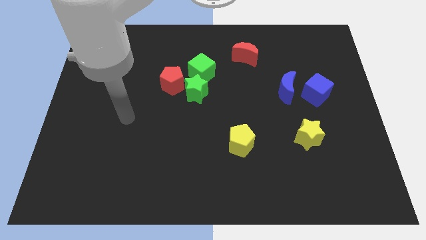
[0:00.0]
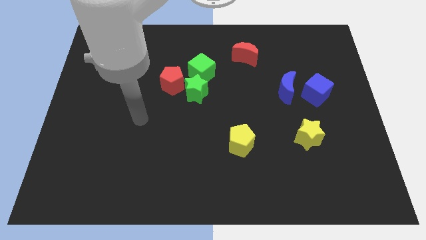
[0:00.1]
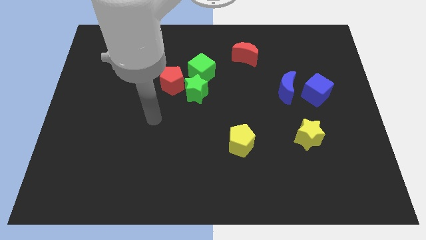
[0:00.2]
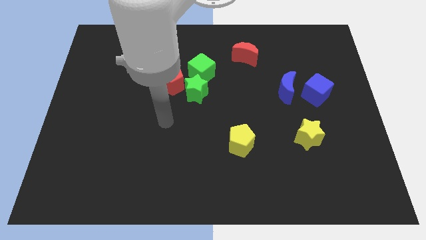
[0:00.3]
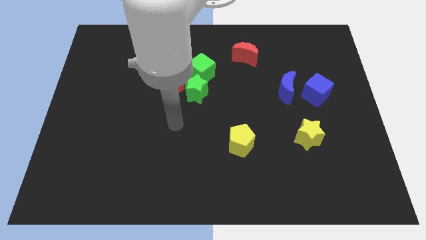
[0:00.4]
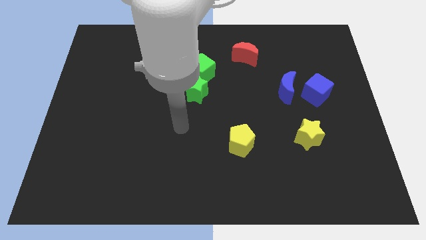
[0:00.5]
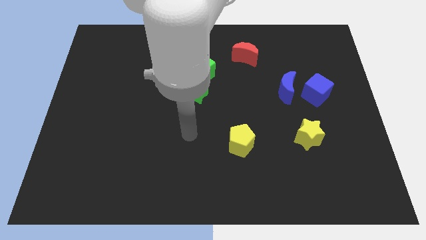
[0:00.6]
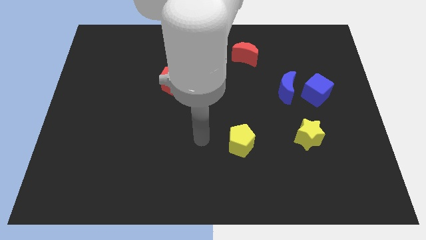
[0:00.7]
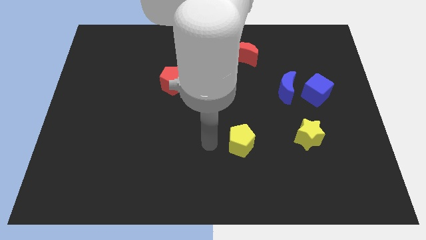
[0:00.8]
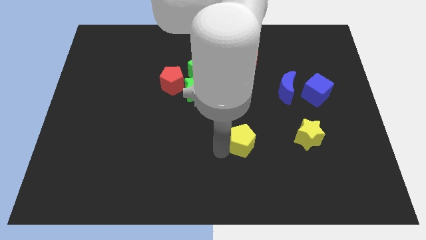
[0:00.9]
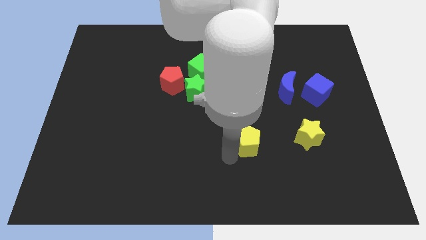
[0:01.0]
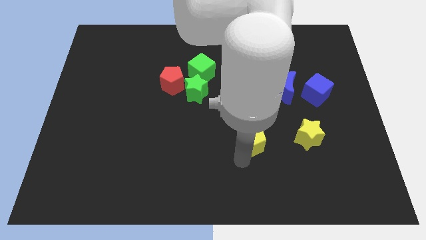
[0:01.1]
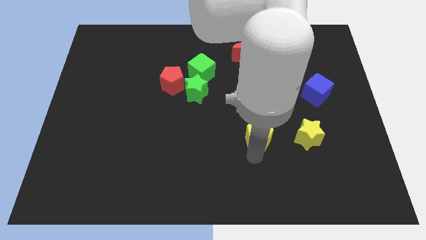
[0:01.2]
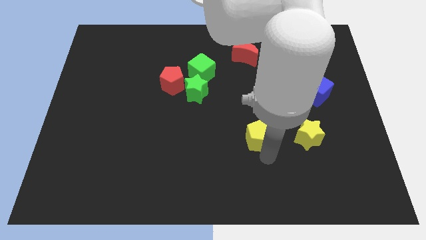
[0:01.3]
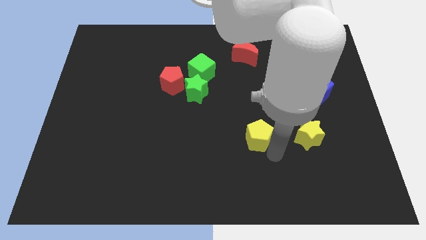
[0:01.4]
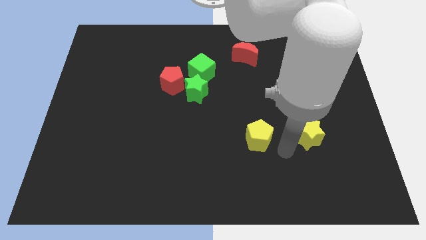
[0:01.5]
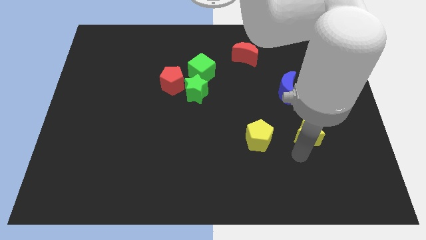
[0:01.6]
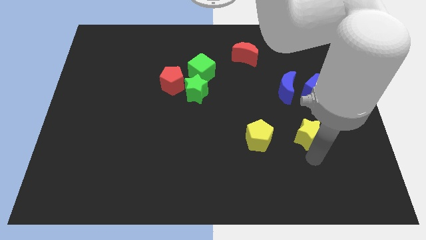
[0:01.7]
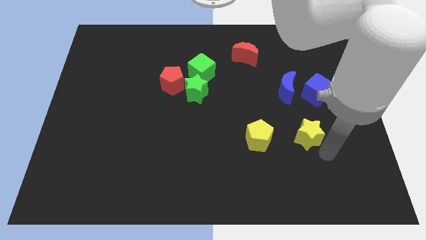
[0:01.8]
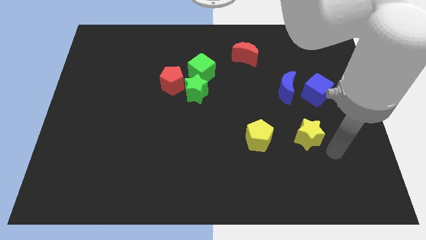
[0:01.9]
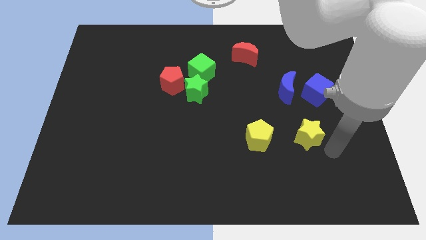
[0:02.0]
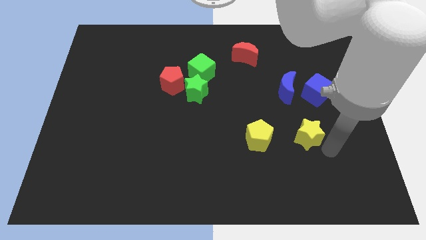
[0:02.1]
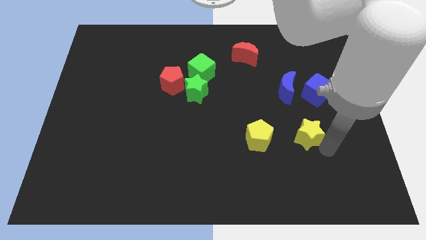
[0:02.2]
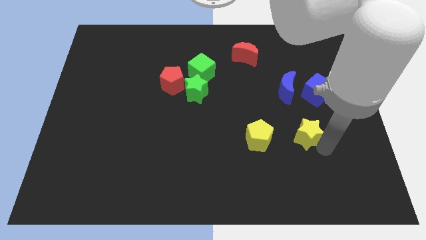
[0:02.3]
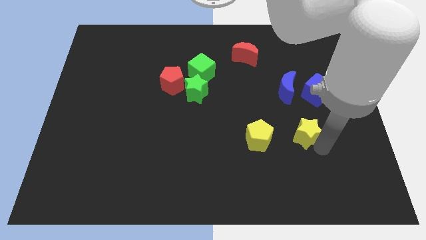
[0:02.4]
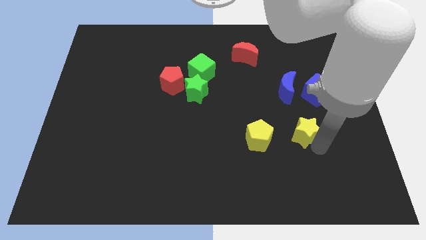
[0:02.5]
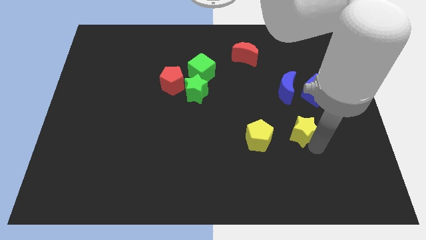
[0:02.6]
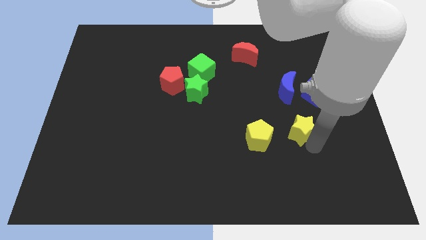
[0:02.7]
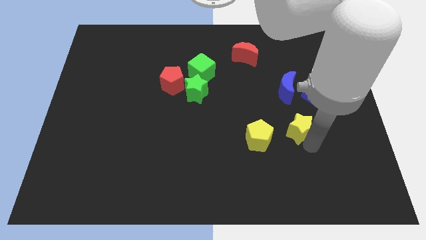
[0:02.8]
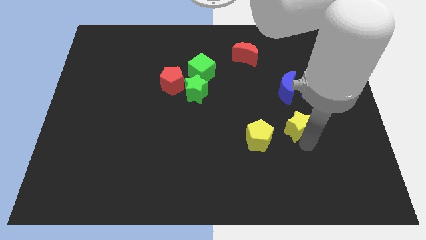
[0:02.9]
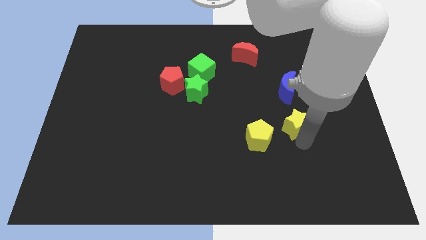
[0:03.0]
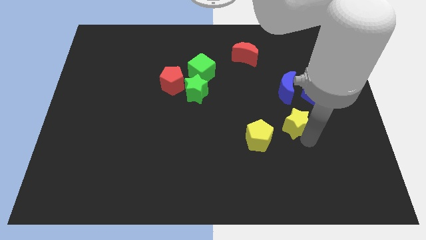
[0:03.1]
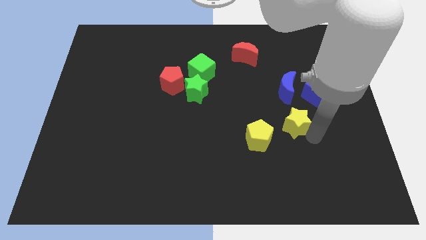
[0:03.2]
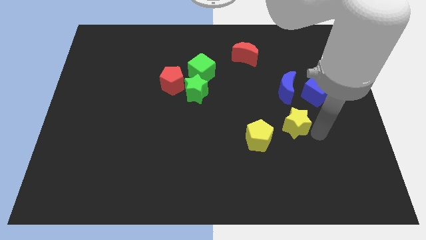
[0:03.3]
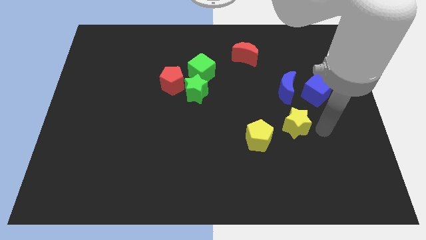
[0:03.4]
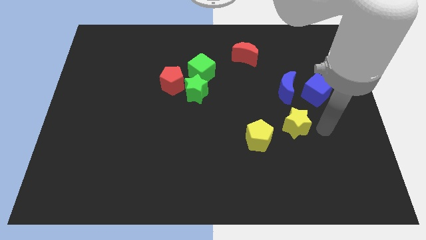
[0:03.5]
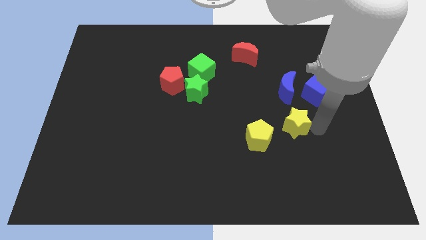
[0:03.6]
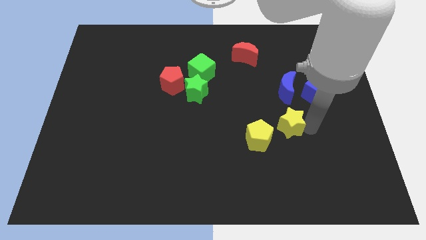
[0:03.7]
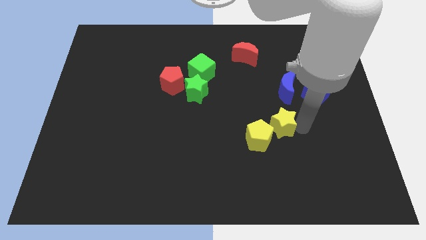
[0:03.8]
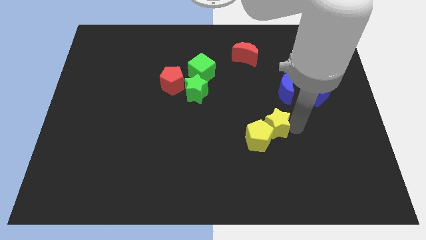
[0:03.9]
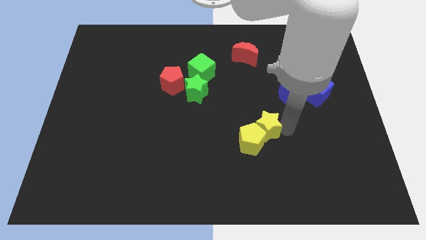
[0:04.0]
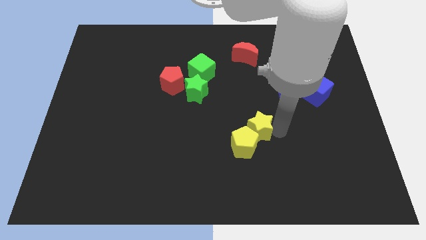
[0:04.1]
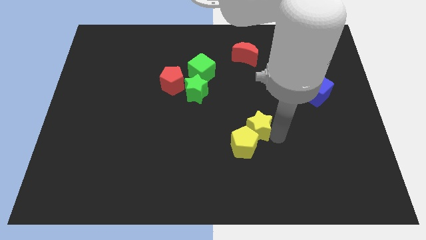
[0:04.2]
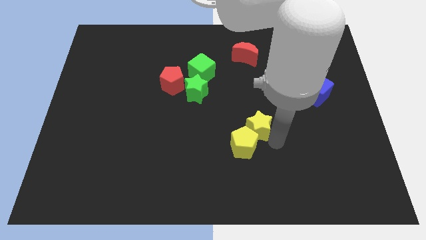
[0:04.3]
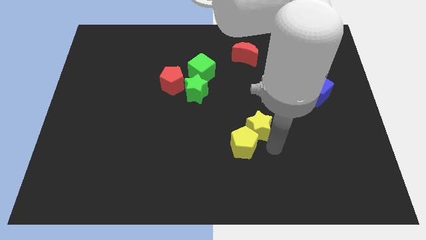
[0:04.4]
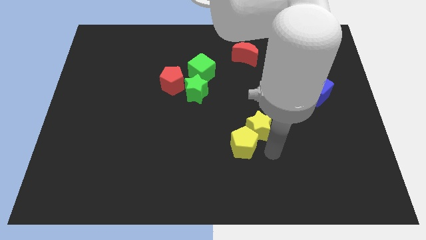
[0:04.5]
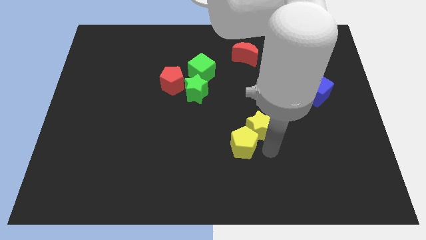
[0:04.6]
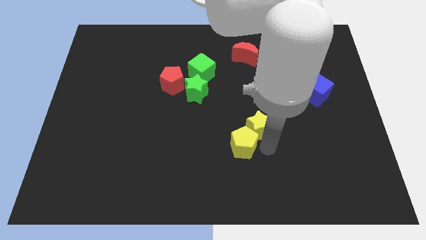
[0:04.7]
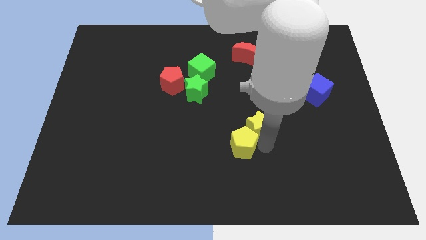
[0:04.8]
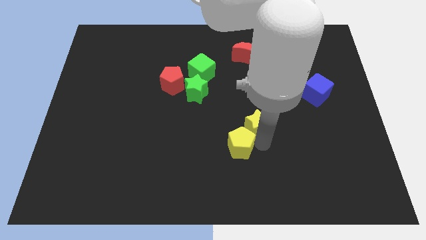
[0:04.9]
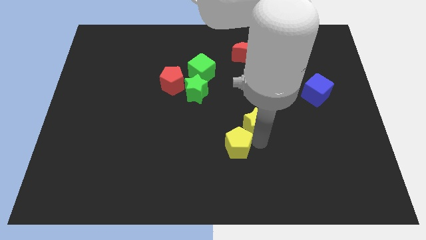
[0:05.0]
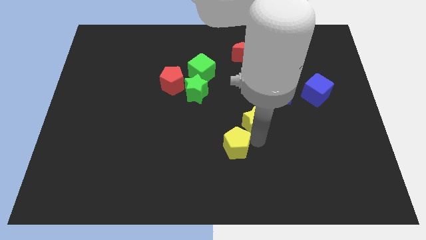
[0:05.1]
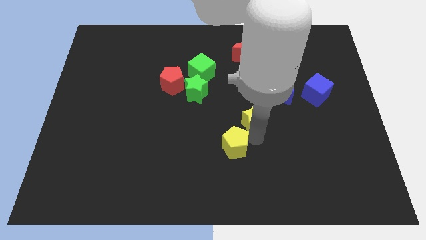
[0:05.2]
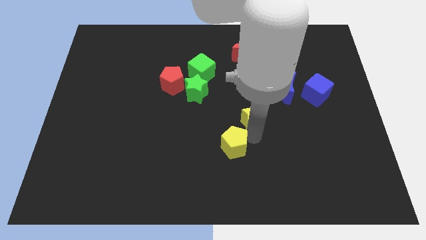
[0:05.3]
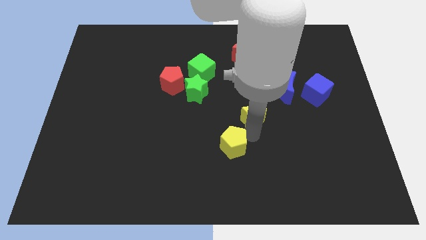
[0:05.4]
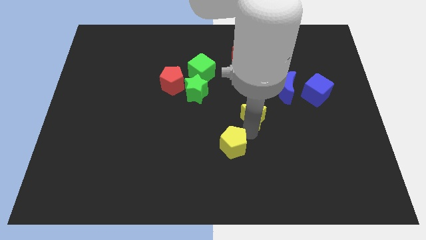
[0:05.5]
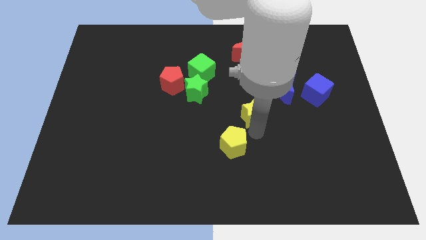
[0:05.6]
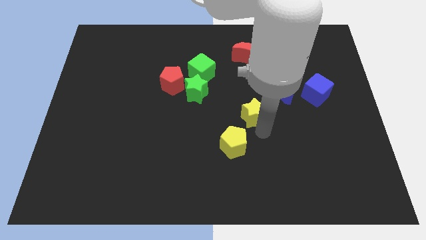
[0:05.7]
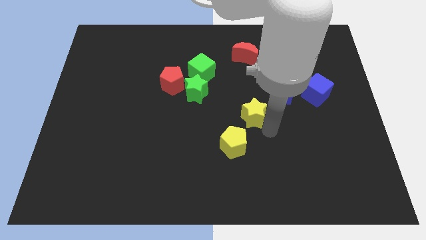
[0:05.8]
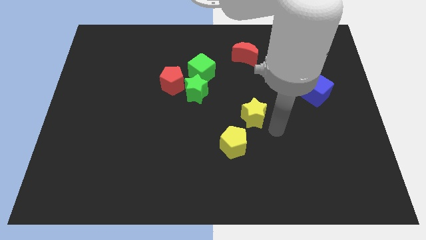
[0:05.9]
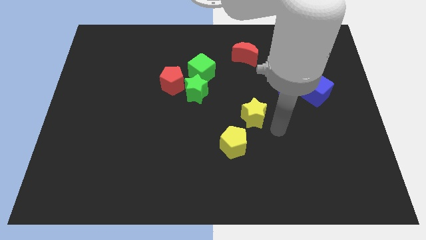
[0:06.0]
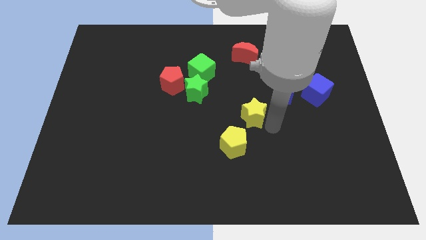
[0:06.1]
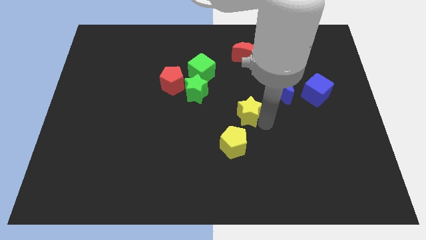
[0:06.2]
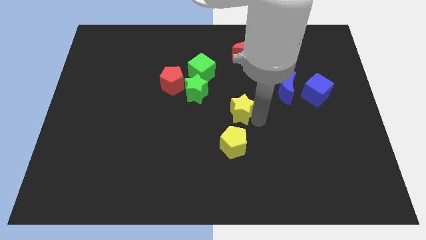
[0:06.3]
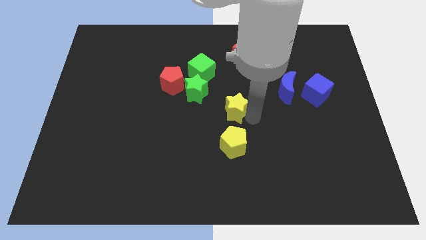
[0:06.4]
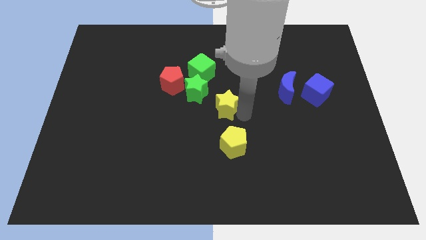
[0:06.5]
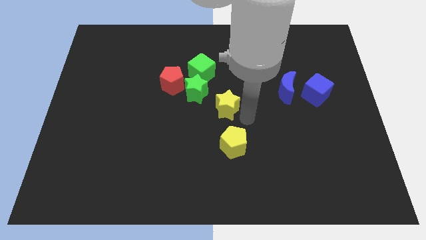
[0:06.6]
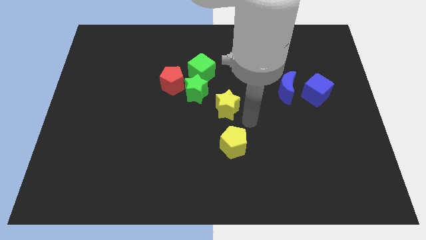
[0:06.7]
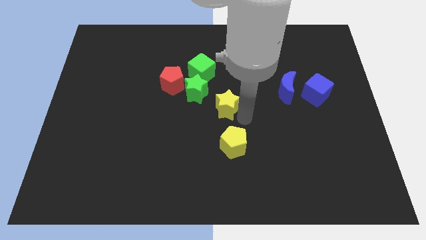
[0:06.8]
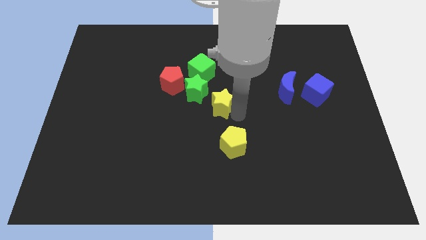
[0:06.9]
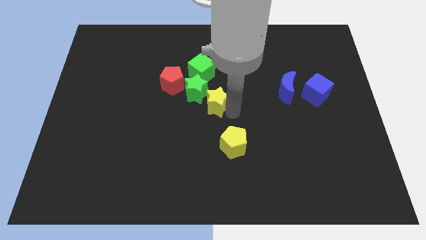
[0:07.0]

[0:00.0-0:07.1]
push the yellow star next to the green star
